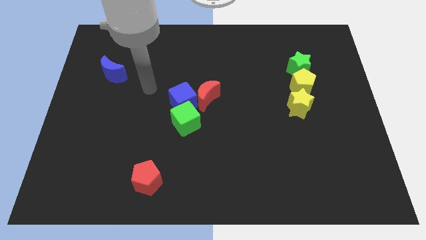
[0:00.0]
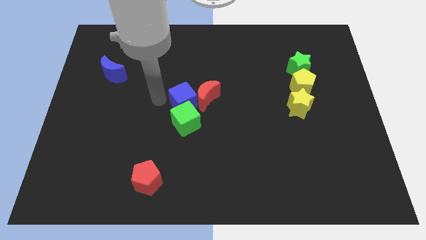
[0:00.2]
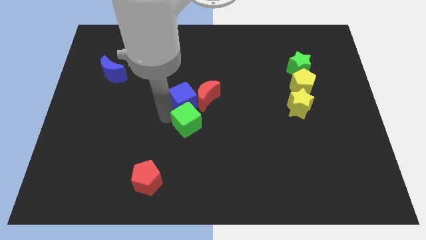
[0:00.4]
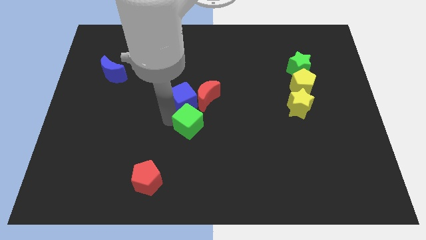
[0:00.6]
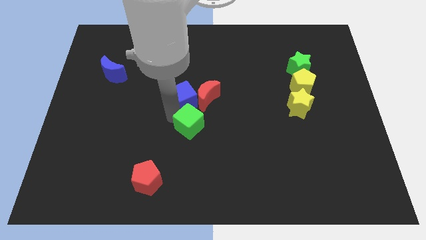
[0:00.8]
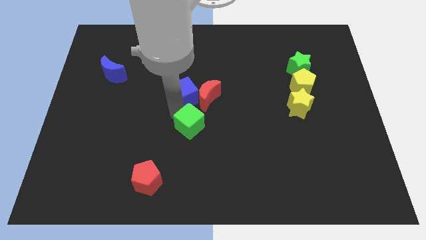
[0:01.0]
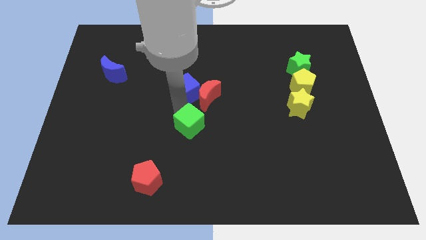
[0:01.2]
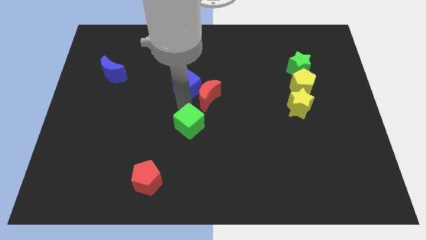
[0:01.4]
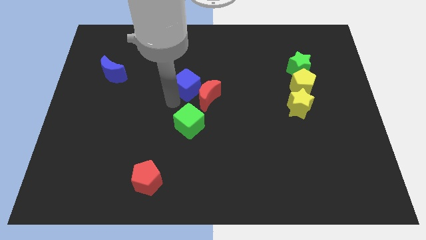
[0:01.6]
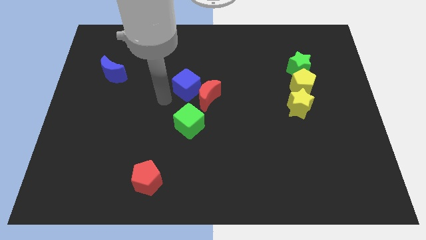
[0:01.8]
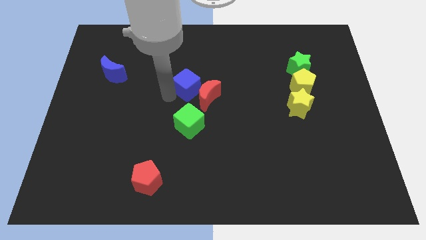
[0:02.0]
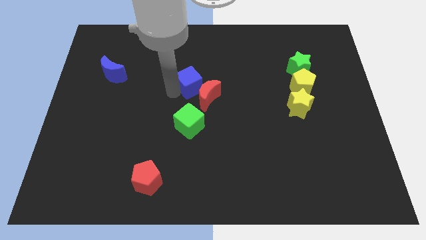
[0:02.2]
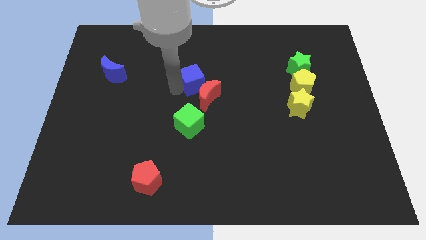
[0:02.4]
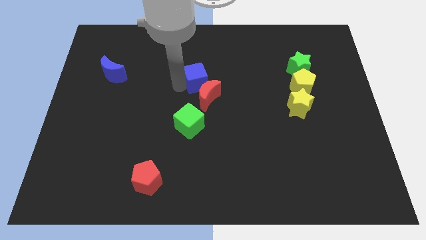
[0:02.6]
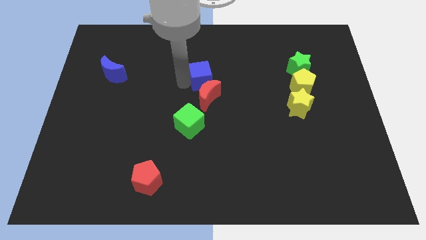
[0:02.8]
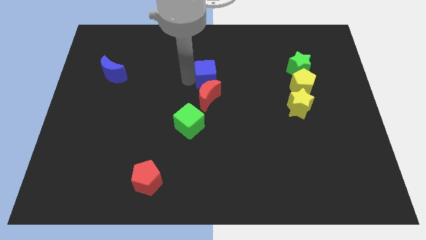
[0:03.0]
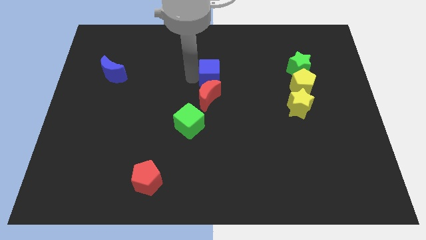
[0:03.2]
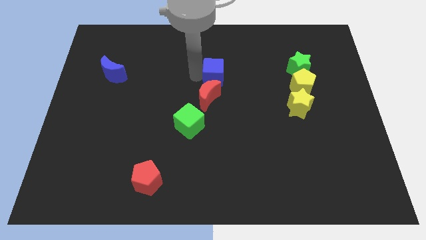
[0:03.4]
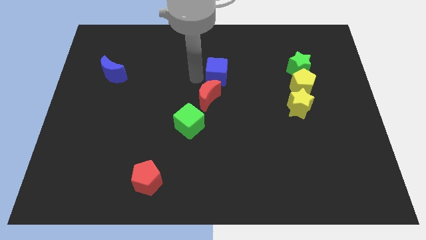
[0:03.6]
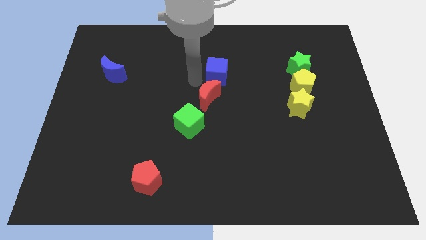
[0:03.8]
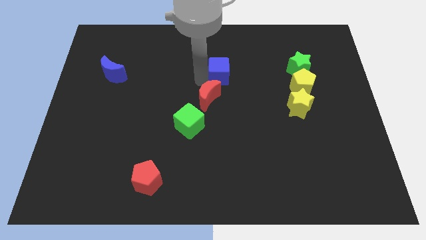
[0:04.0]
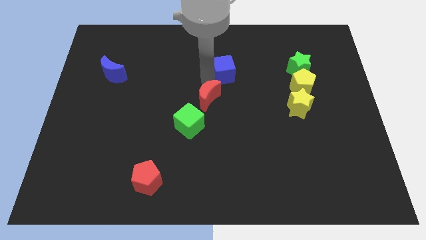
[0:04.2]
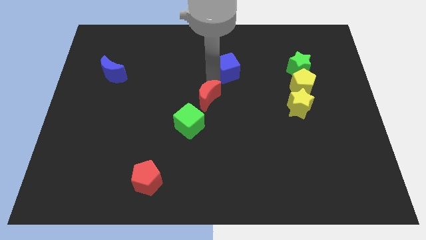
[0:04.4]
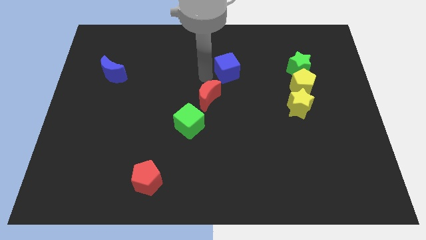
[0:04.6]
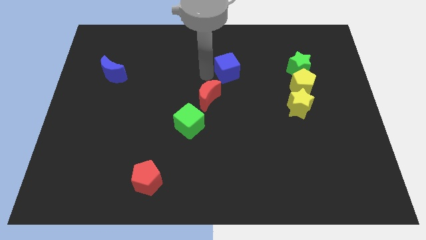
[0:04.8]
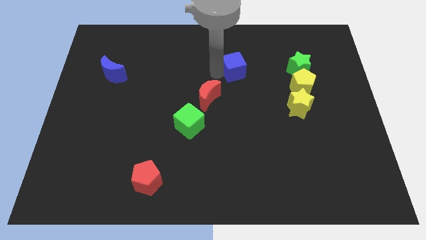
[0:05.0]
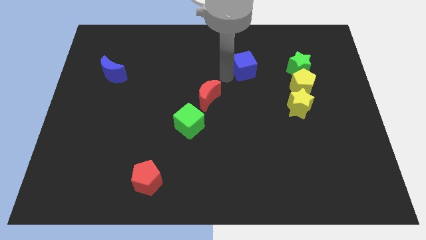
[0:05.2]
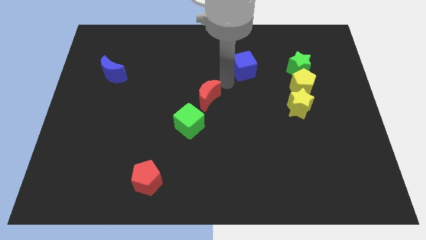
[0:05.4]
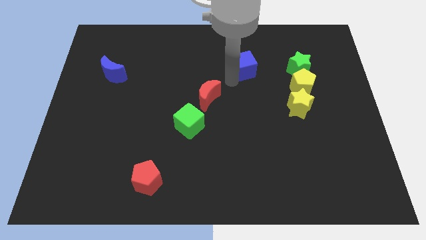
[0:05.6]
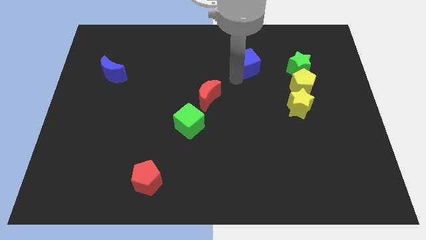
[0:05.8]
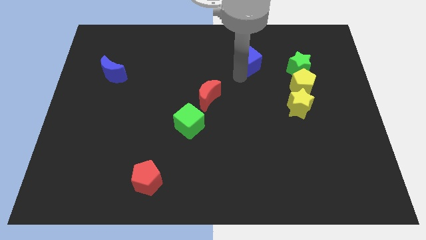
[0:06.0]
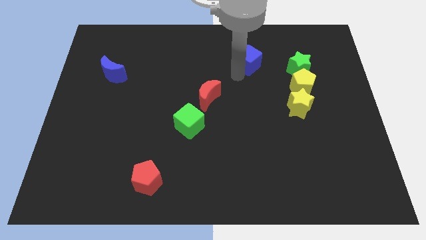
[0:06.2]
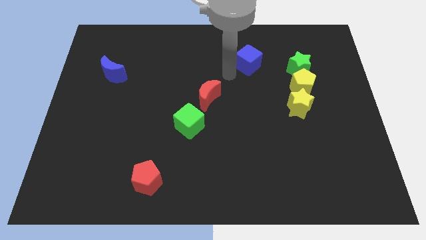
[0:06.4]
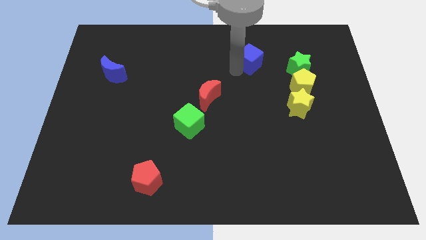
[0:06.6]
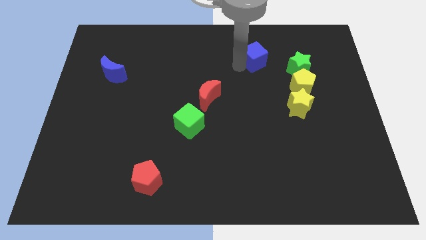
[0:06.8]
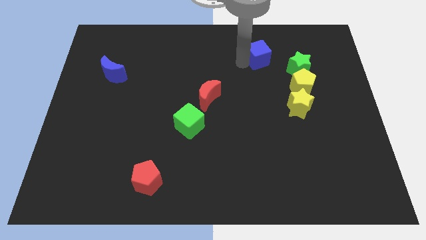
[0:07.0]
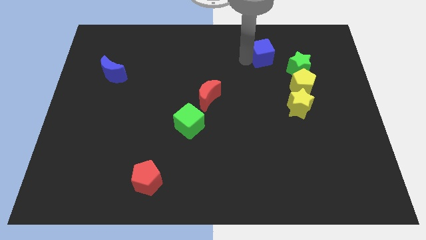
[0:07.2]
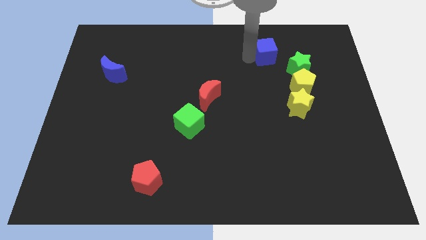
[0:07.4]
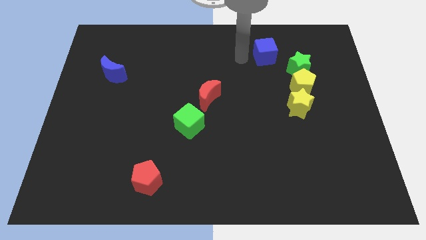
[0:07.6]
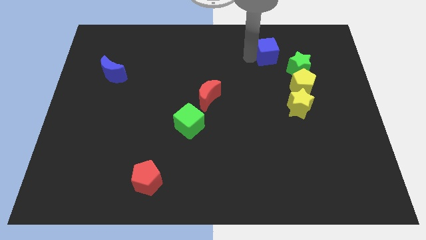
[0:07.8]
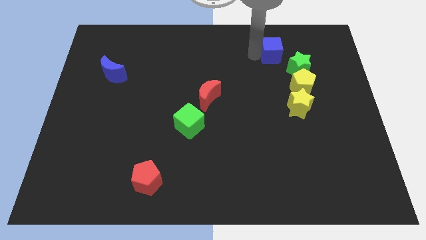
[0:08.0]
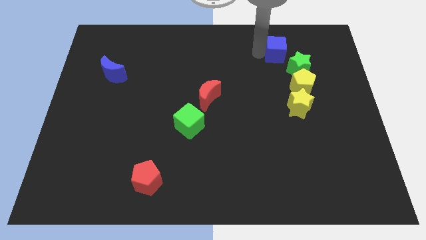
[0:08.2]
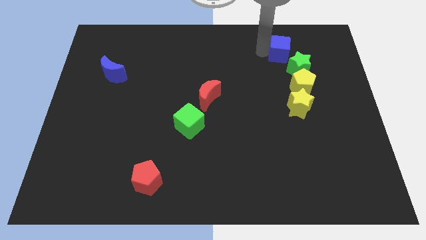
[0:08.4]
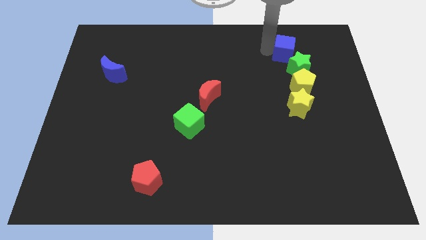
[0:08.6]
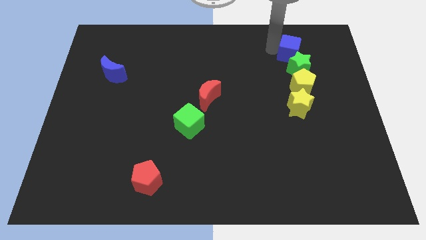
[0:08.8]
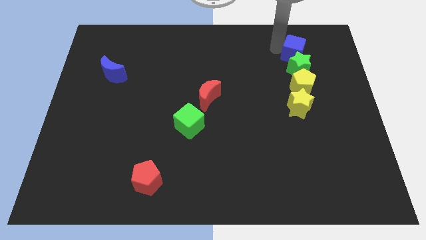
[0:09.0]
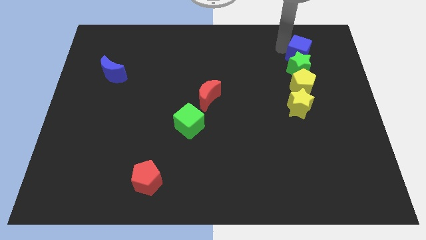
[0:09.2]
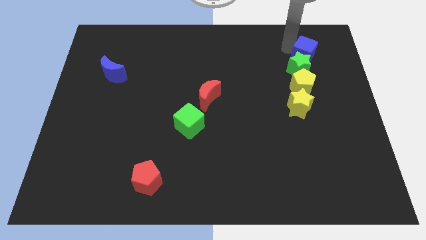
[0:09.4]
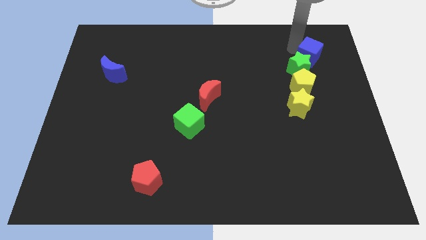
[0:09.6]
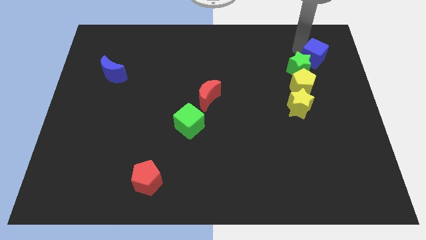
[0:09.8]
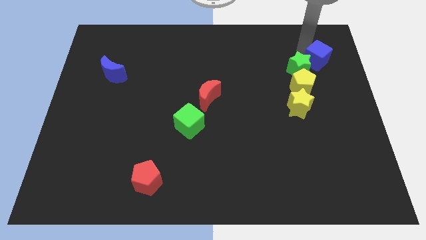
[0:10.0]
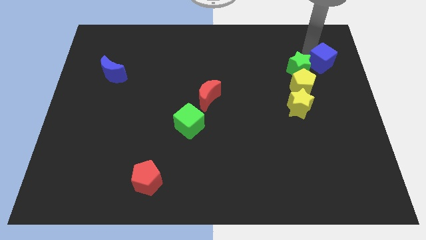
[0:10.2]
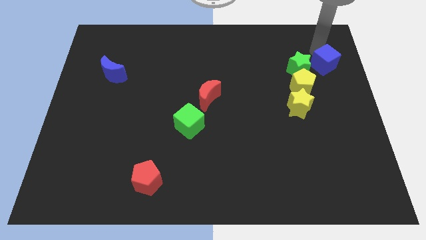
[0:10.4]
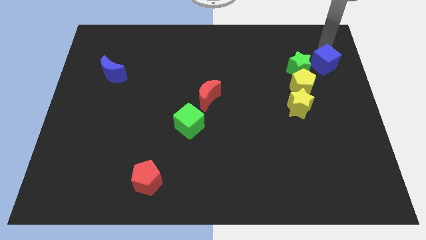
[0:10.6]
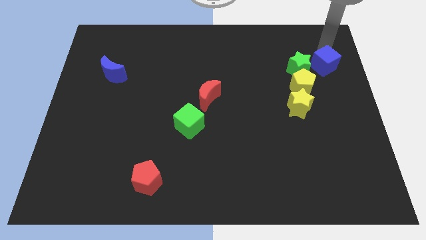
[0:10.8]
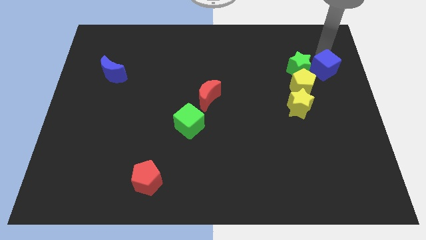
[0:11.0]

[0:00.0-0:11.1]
push the blue cube to the bottom right of the green star
